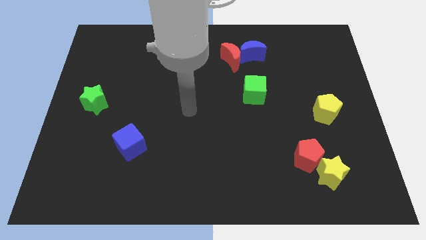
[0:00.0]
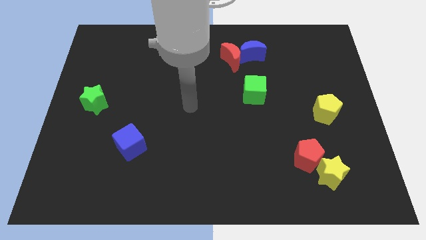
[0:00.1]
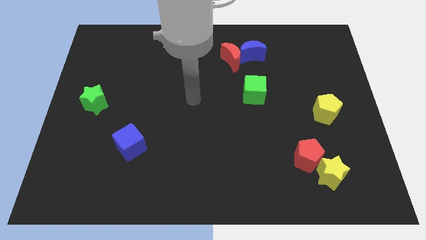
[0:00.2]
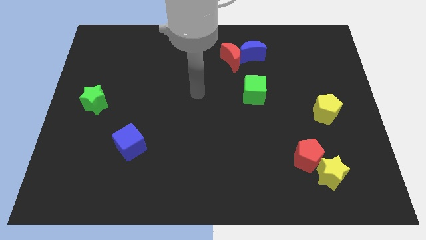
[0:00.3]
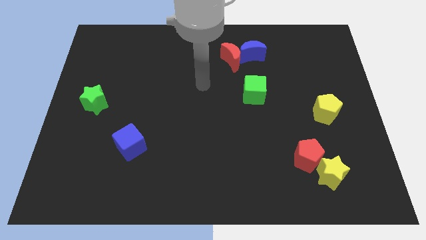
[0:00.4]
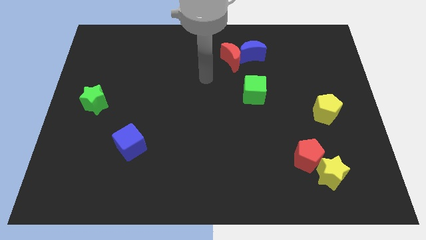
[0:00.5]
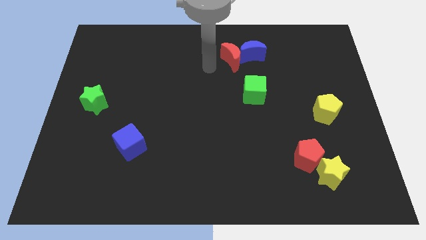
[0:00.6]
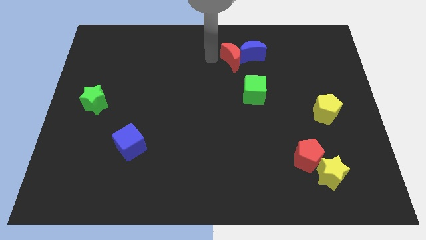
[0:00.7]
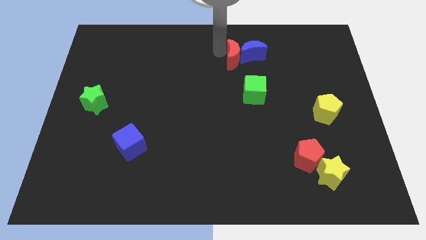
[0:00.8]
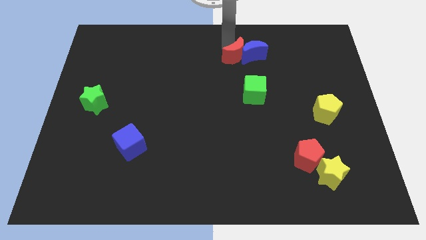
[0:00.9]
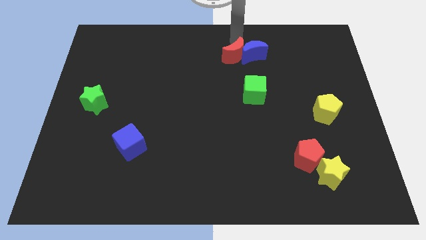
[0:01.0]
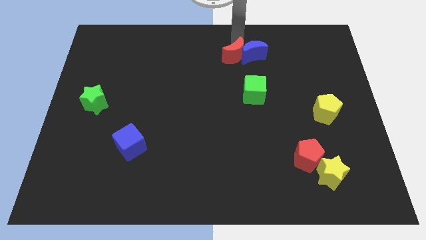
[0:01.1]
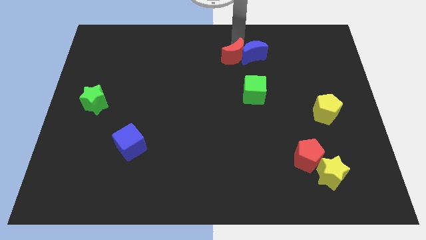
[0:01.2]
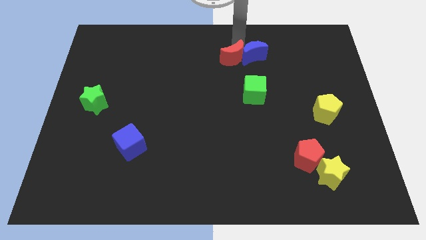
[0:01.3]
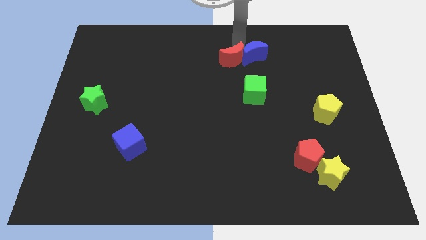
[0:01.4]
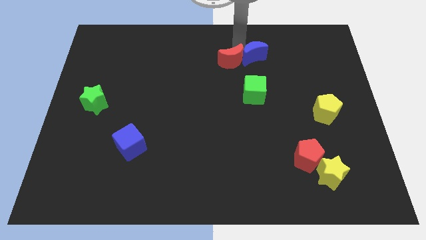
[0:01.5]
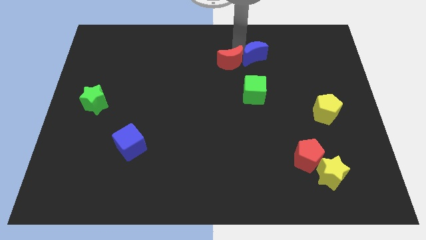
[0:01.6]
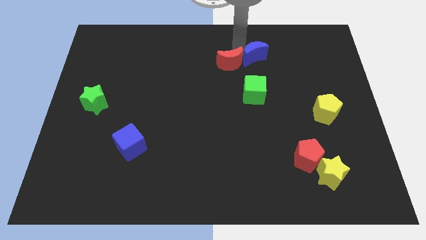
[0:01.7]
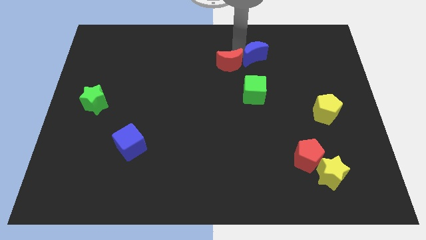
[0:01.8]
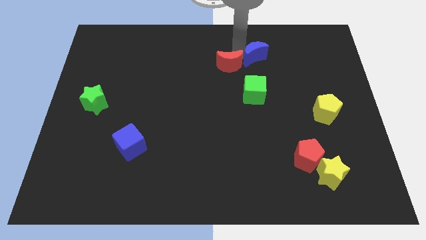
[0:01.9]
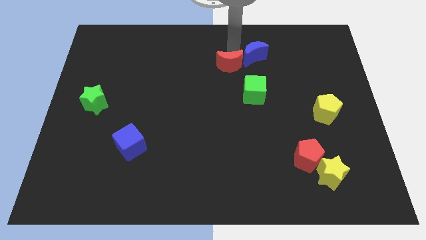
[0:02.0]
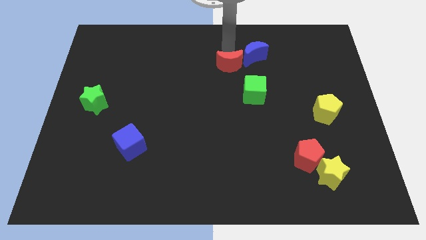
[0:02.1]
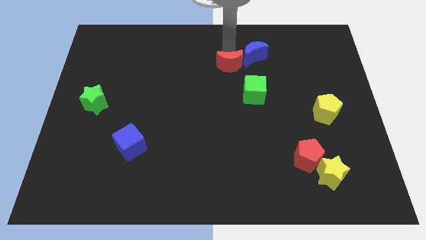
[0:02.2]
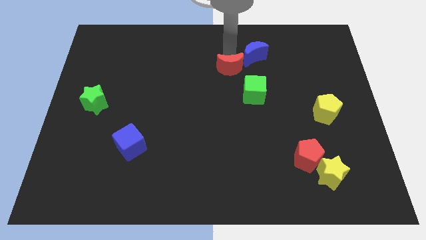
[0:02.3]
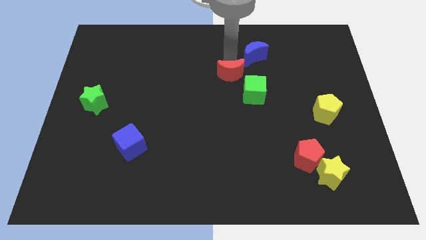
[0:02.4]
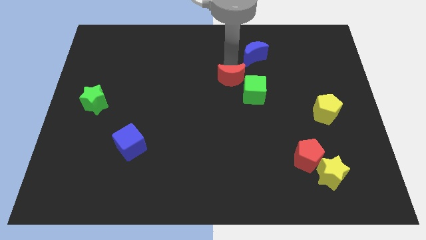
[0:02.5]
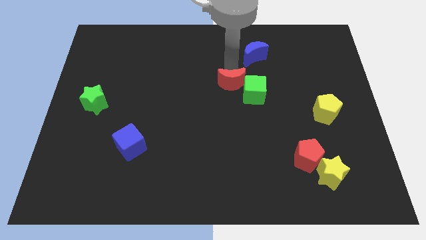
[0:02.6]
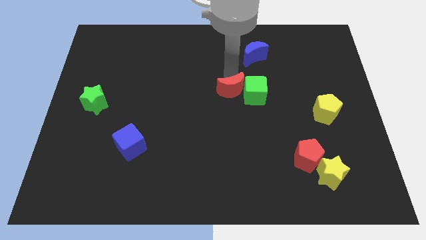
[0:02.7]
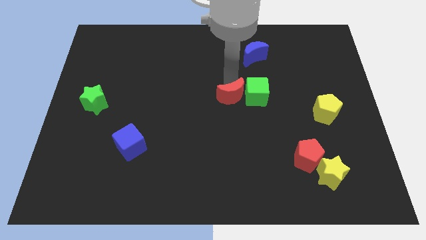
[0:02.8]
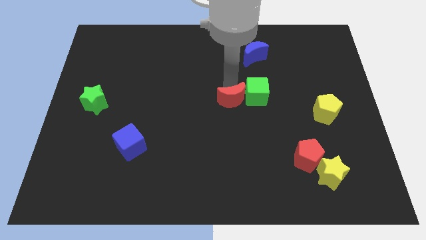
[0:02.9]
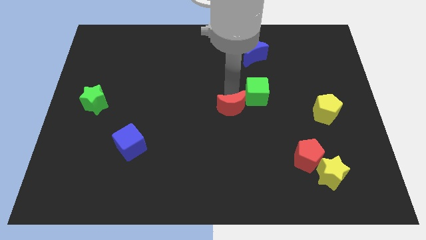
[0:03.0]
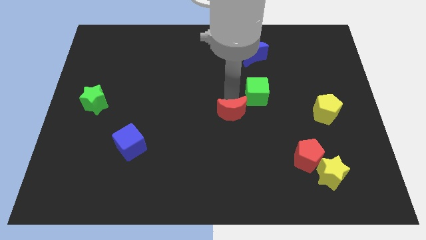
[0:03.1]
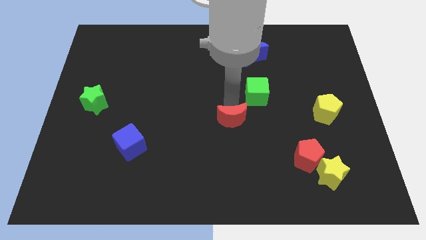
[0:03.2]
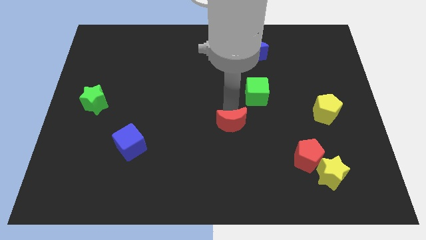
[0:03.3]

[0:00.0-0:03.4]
slide the red moon down

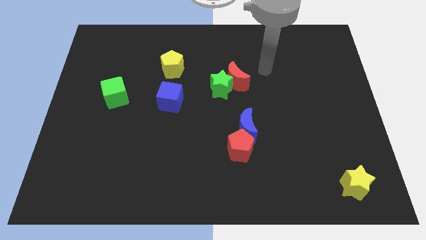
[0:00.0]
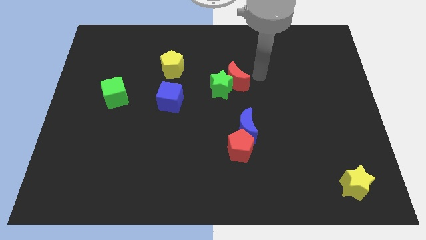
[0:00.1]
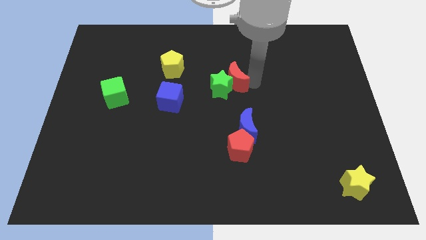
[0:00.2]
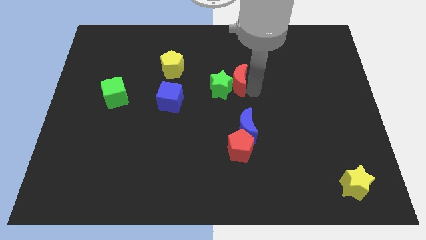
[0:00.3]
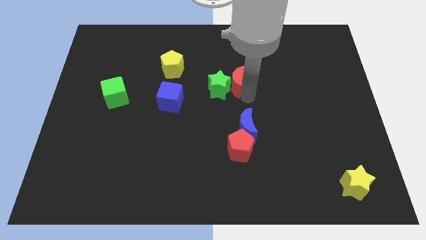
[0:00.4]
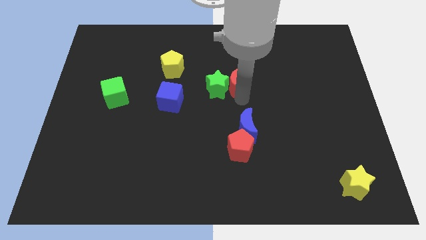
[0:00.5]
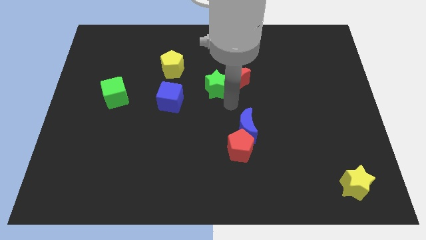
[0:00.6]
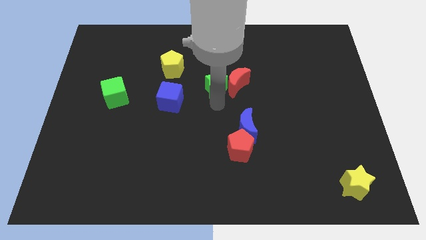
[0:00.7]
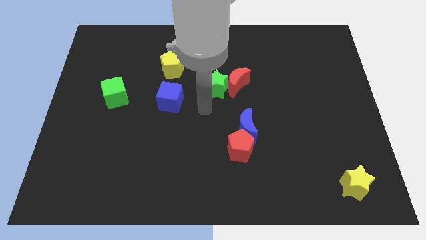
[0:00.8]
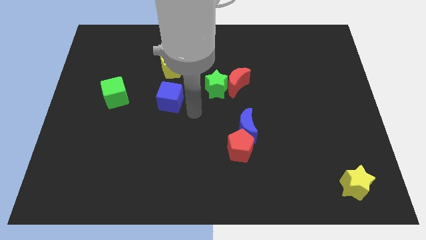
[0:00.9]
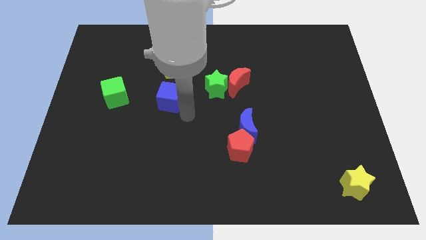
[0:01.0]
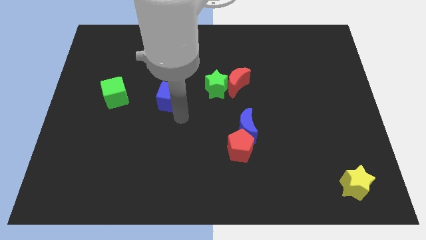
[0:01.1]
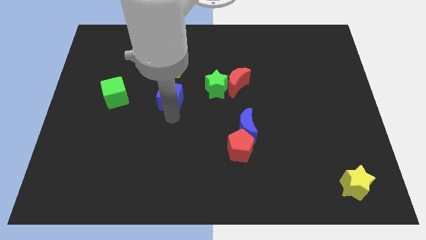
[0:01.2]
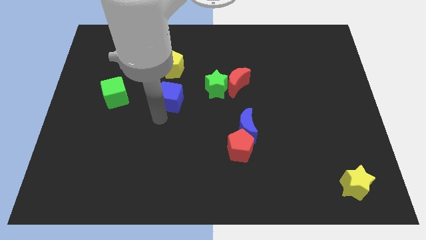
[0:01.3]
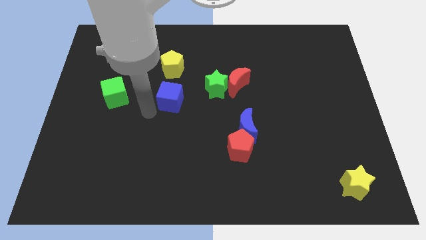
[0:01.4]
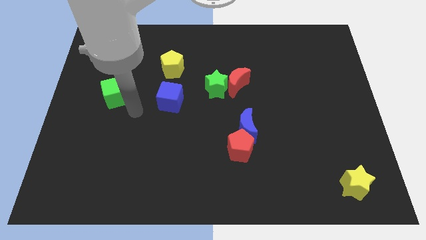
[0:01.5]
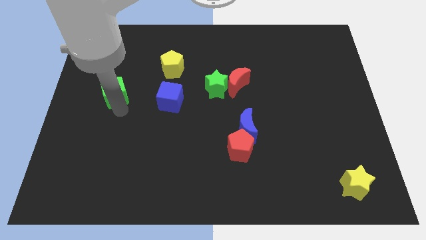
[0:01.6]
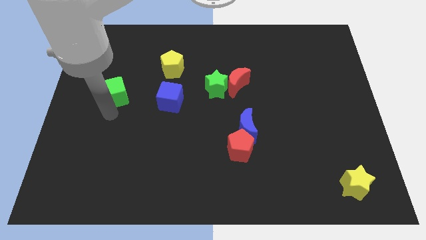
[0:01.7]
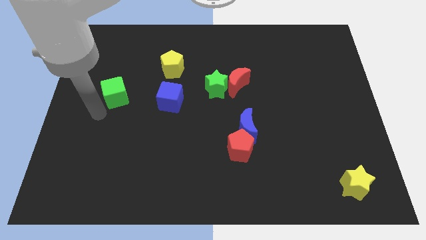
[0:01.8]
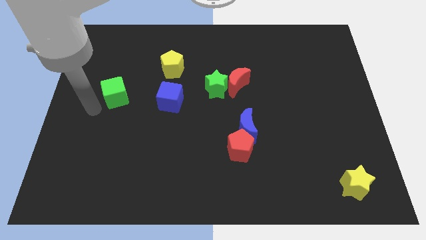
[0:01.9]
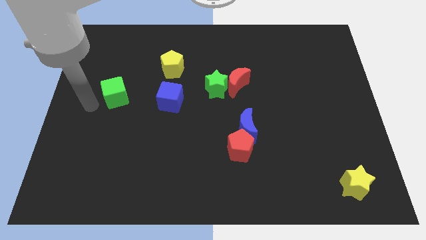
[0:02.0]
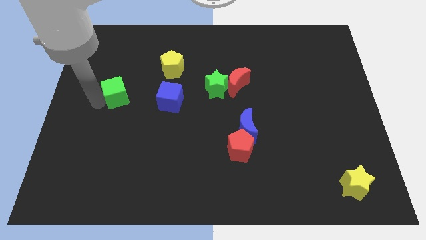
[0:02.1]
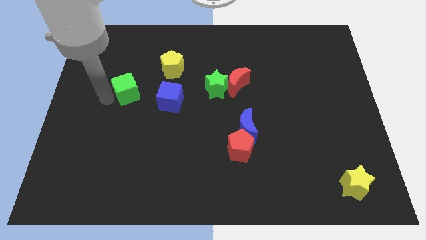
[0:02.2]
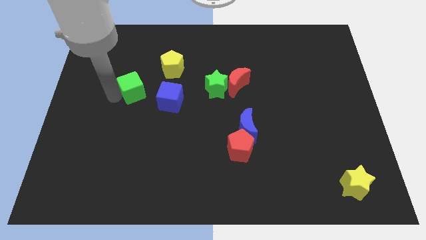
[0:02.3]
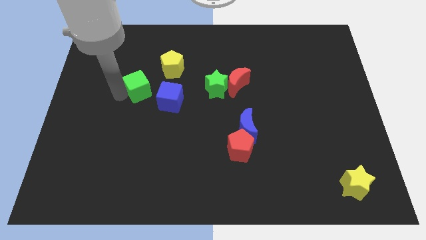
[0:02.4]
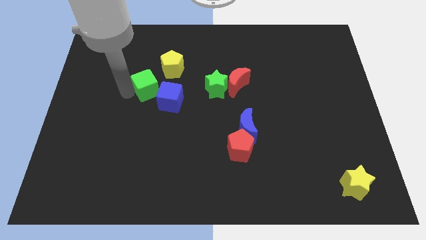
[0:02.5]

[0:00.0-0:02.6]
slightly move the green cube right

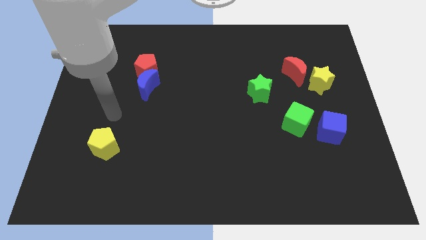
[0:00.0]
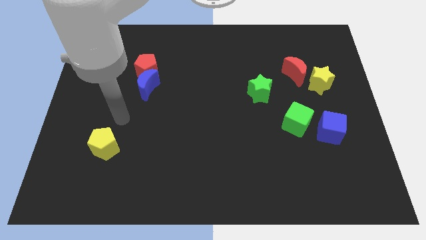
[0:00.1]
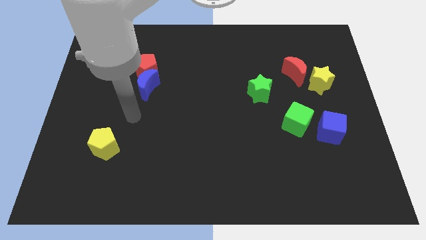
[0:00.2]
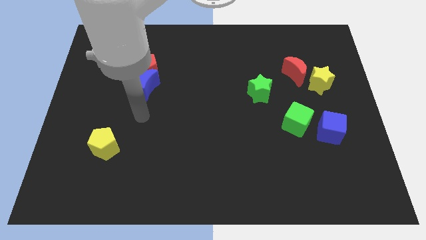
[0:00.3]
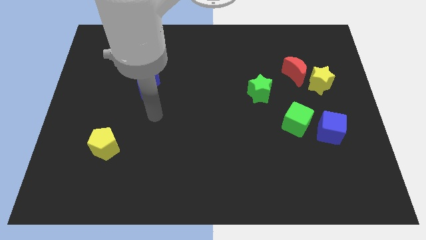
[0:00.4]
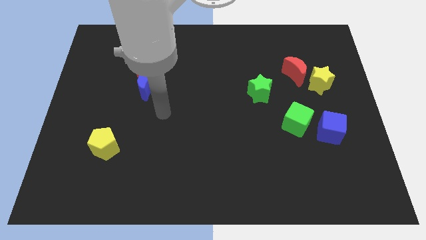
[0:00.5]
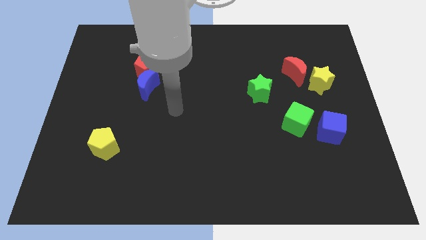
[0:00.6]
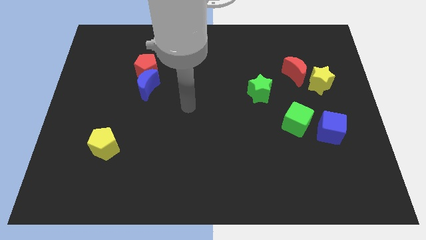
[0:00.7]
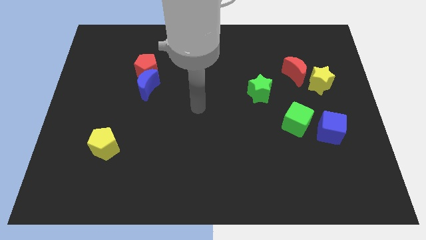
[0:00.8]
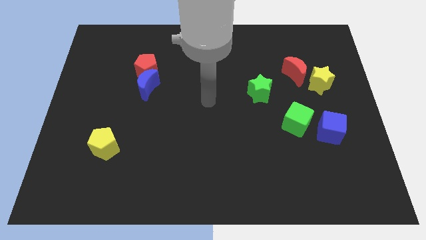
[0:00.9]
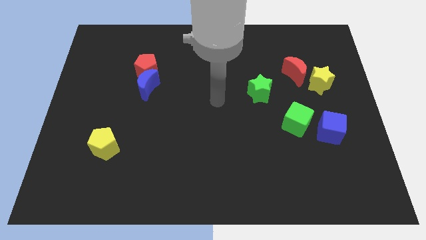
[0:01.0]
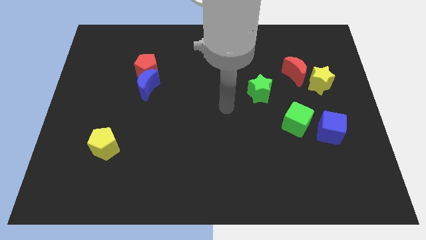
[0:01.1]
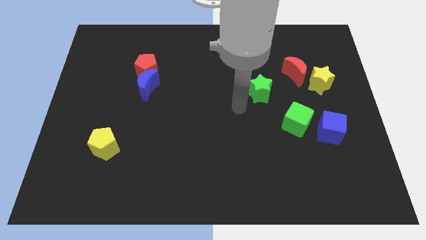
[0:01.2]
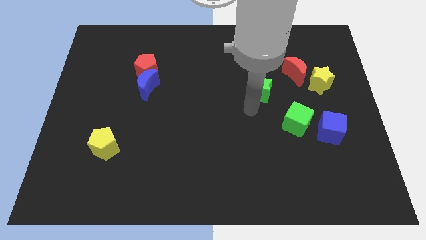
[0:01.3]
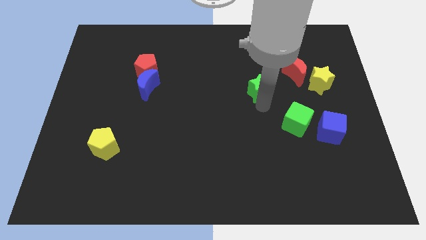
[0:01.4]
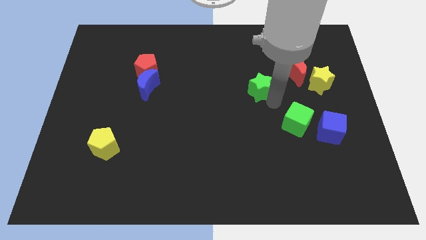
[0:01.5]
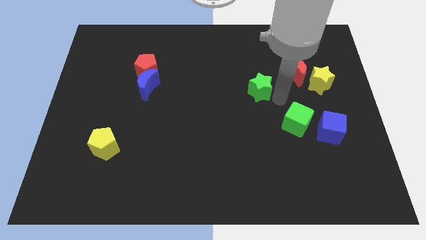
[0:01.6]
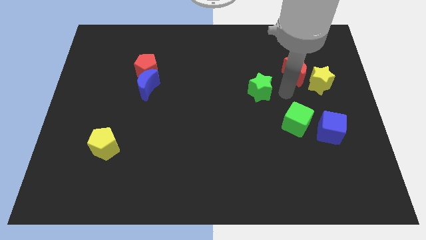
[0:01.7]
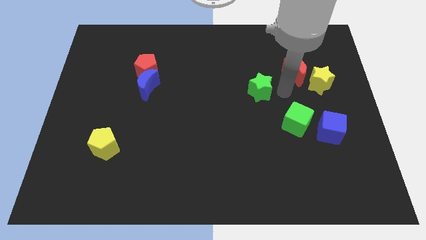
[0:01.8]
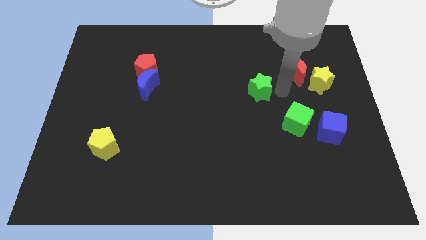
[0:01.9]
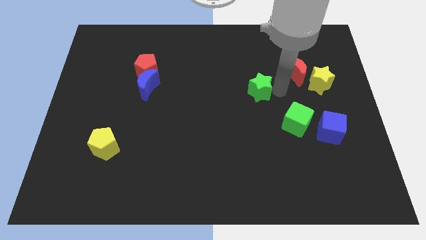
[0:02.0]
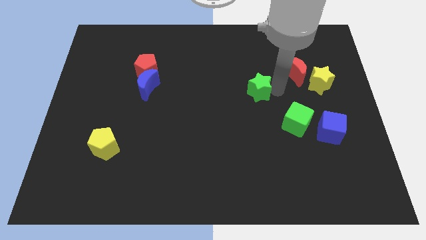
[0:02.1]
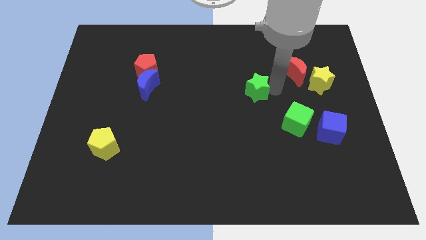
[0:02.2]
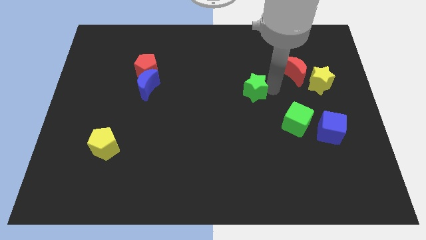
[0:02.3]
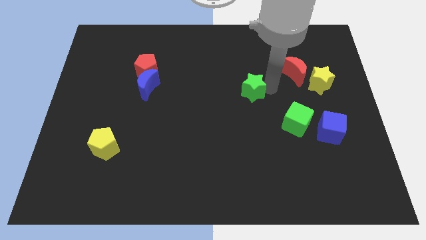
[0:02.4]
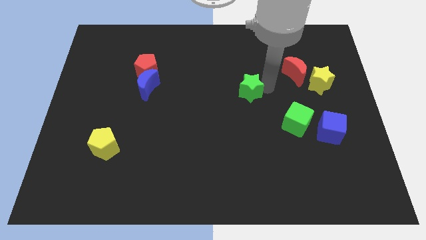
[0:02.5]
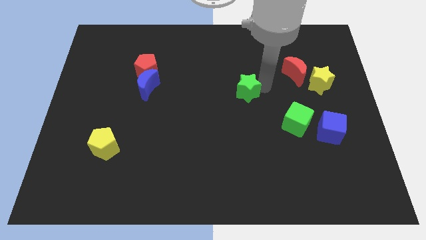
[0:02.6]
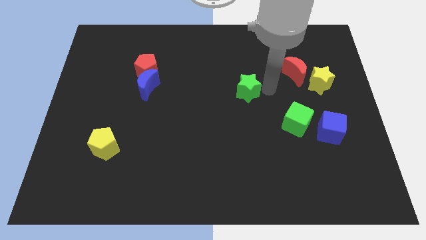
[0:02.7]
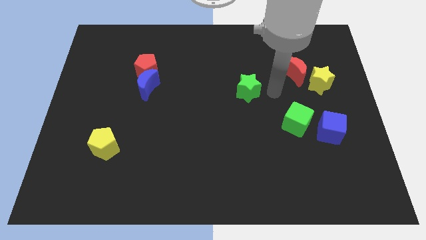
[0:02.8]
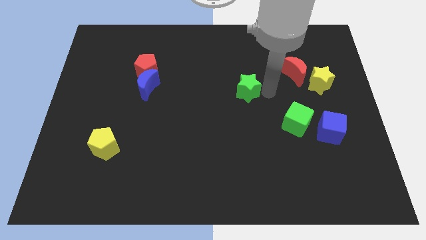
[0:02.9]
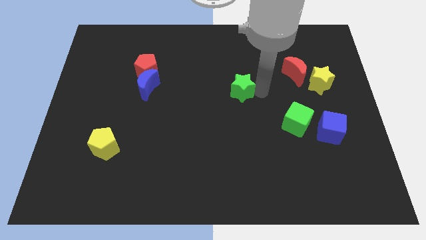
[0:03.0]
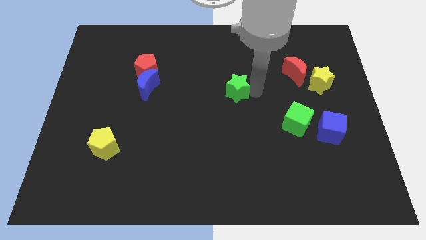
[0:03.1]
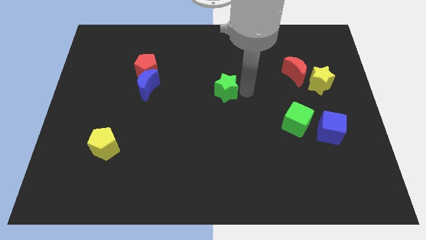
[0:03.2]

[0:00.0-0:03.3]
slightly push the green star to the left
